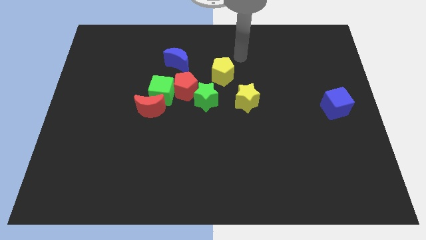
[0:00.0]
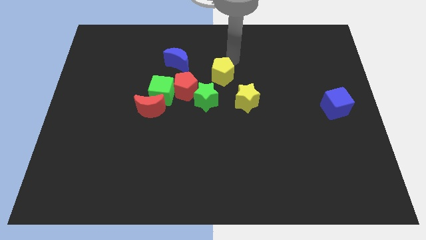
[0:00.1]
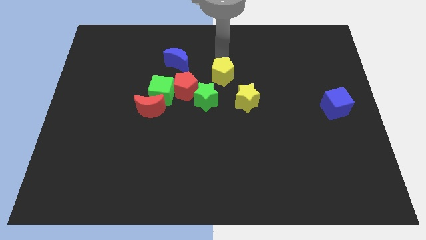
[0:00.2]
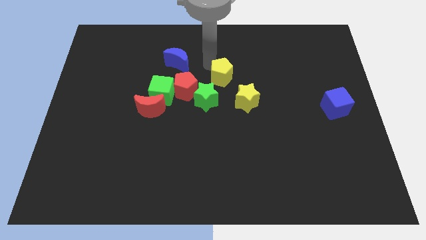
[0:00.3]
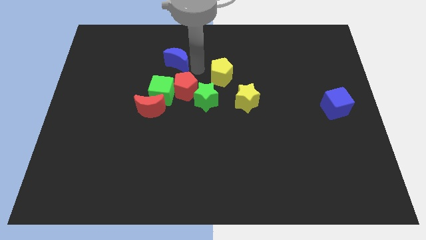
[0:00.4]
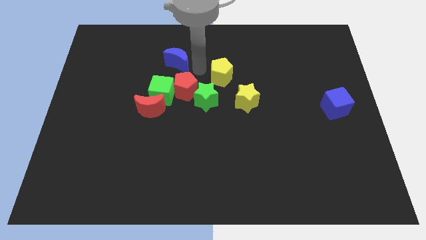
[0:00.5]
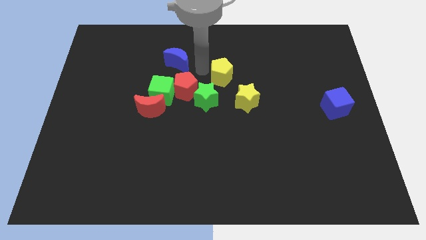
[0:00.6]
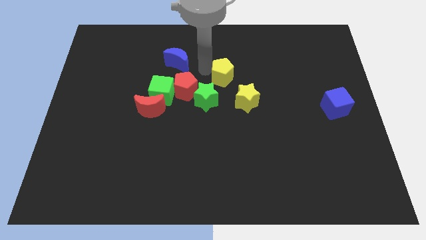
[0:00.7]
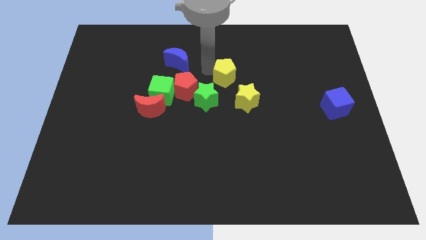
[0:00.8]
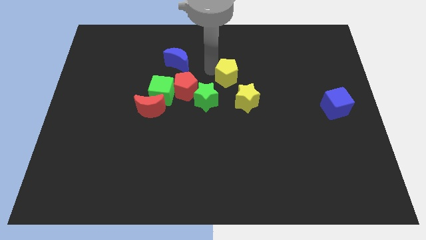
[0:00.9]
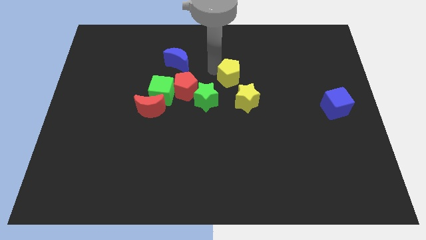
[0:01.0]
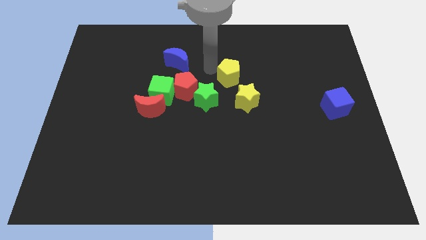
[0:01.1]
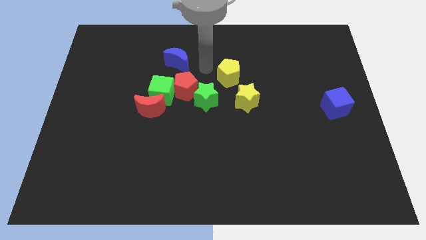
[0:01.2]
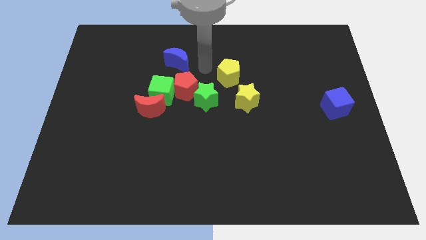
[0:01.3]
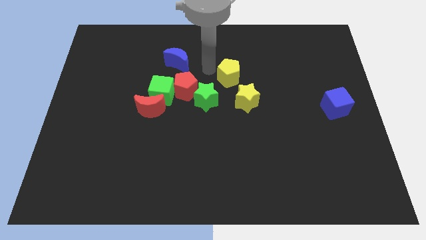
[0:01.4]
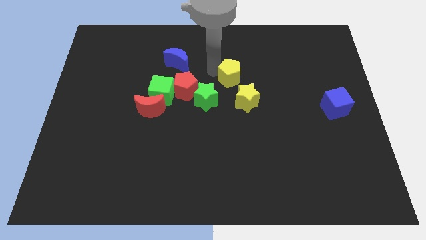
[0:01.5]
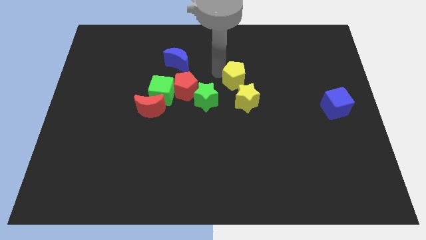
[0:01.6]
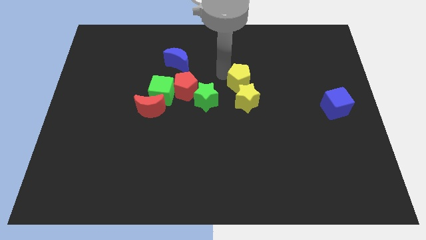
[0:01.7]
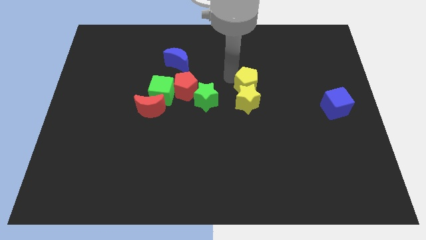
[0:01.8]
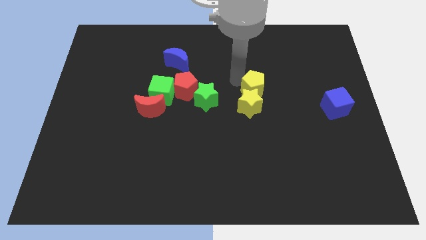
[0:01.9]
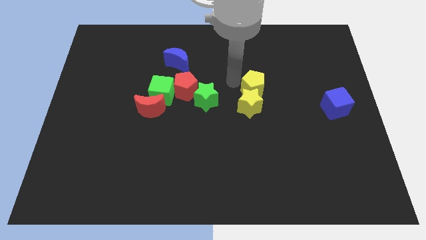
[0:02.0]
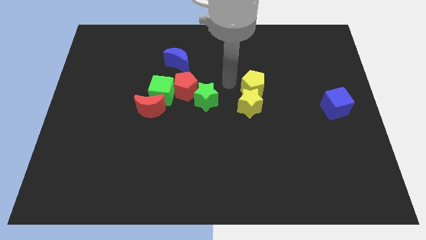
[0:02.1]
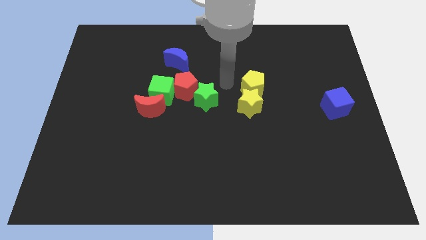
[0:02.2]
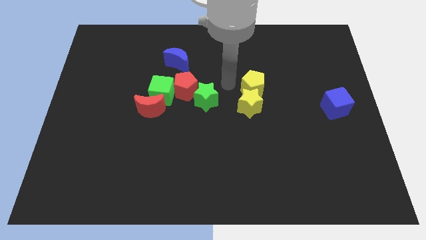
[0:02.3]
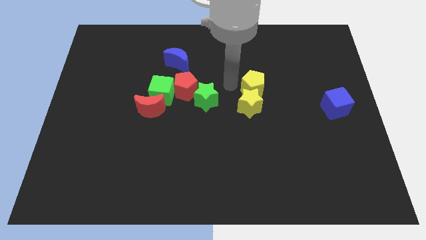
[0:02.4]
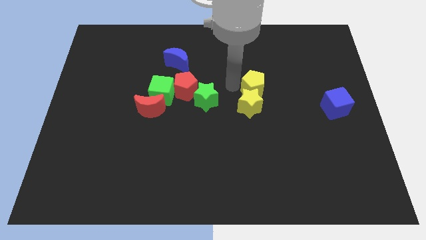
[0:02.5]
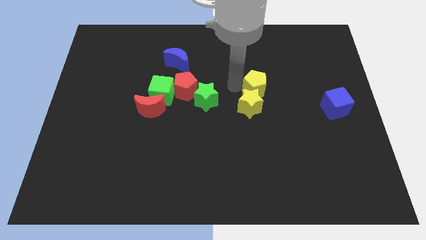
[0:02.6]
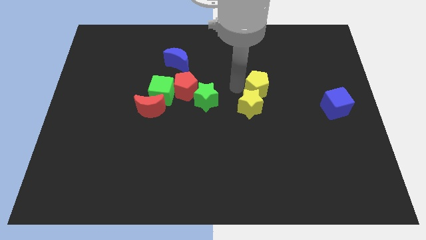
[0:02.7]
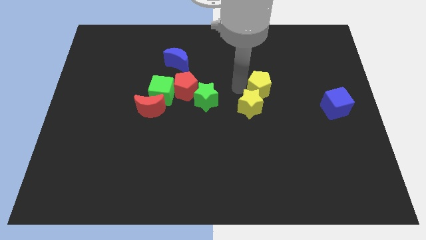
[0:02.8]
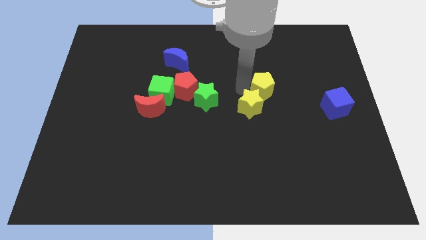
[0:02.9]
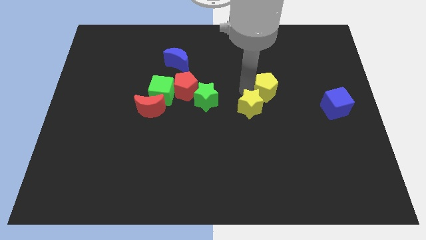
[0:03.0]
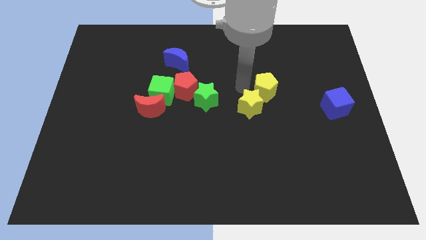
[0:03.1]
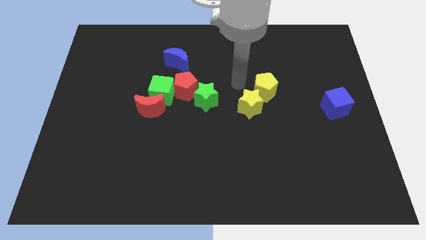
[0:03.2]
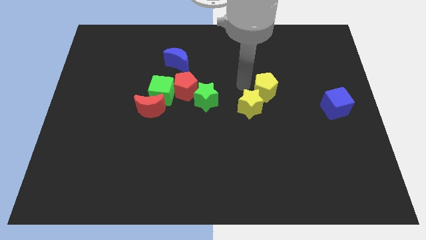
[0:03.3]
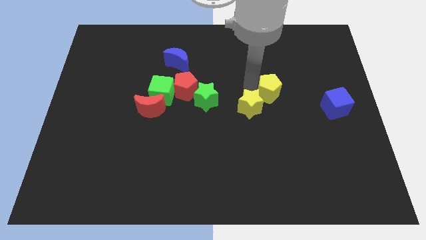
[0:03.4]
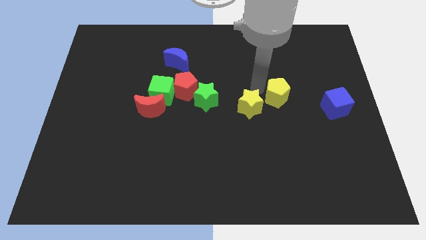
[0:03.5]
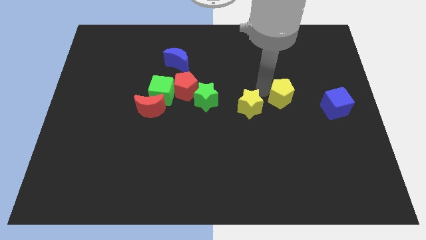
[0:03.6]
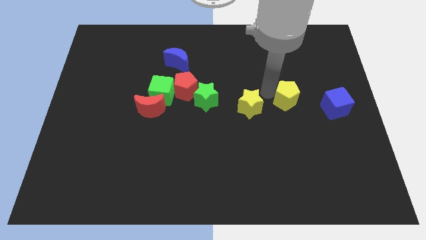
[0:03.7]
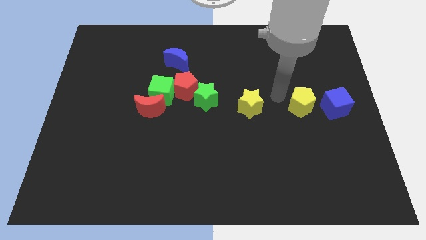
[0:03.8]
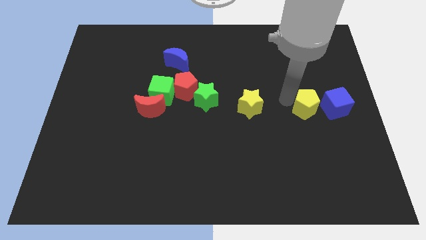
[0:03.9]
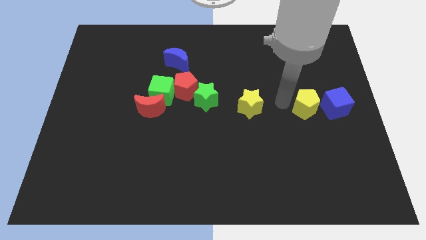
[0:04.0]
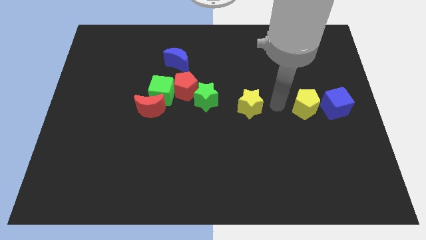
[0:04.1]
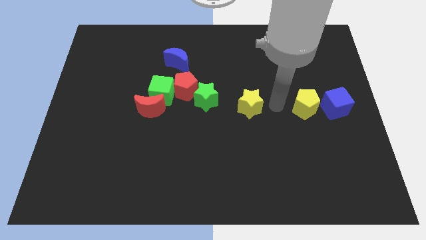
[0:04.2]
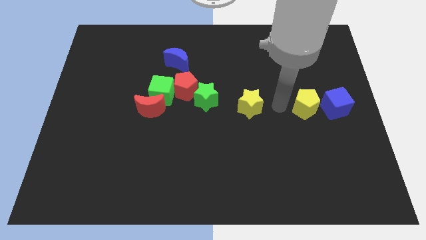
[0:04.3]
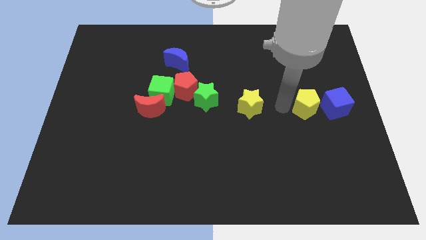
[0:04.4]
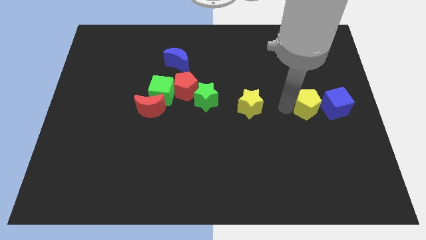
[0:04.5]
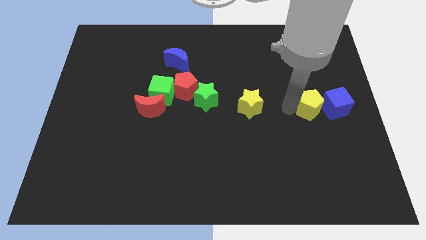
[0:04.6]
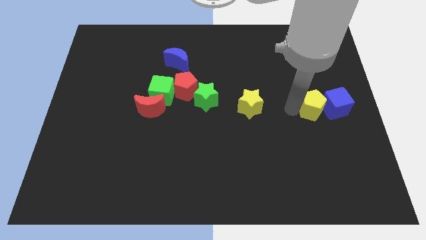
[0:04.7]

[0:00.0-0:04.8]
move the yellow pentagon next to the blue cube

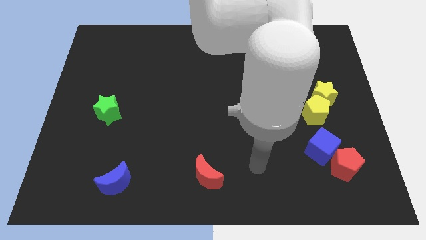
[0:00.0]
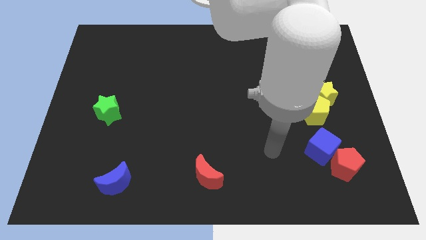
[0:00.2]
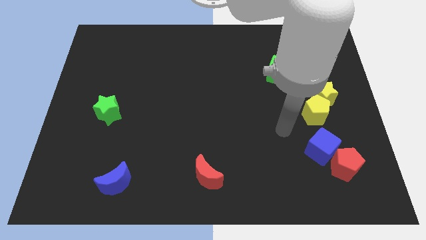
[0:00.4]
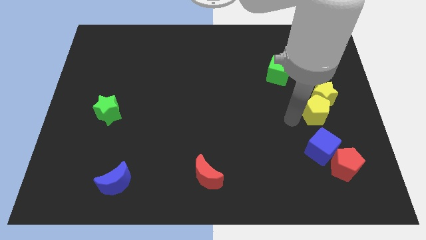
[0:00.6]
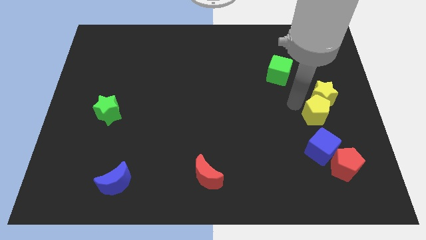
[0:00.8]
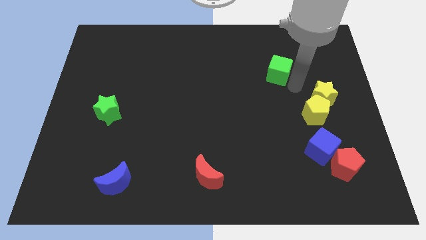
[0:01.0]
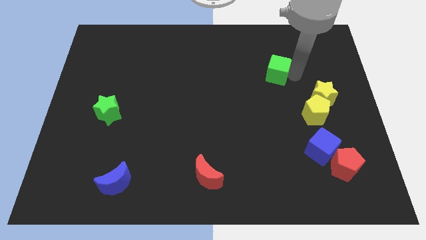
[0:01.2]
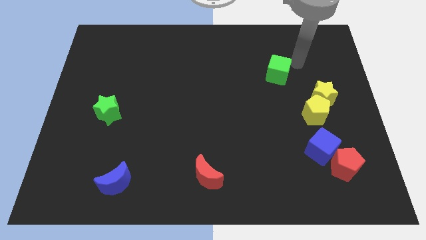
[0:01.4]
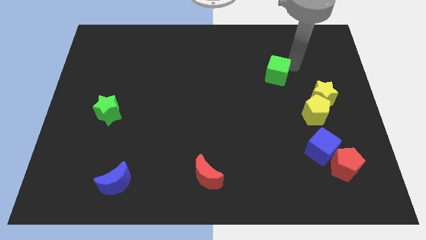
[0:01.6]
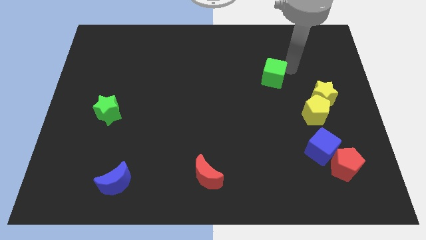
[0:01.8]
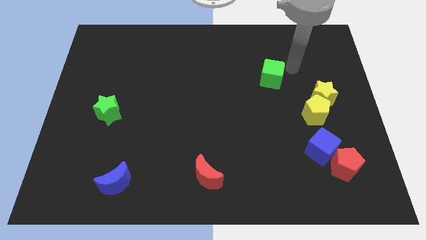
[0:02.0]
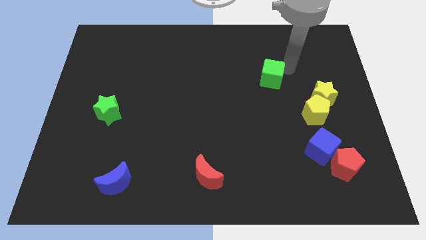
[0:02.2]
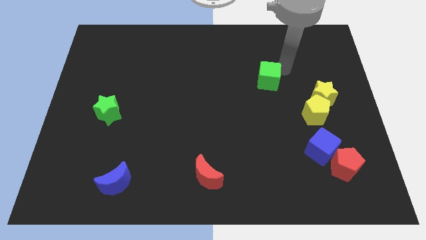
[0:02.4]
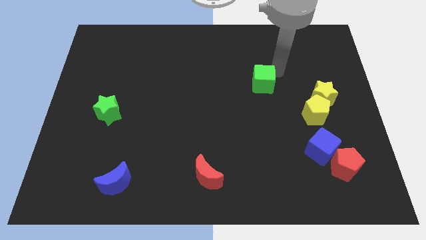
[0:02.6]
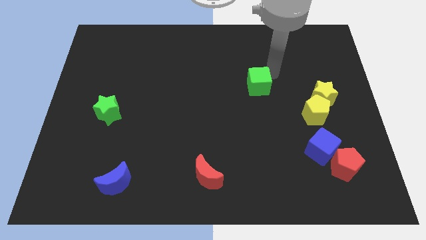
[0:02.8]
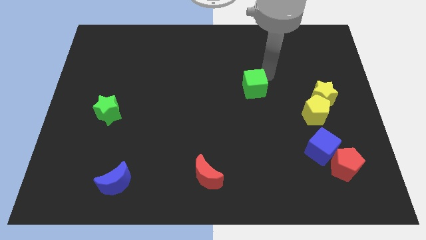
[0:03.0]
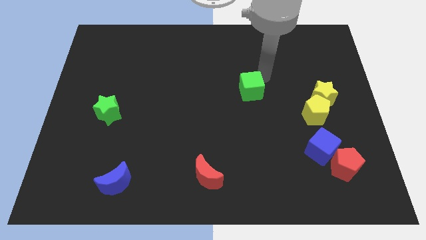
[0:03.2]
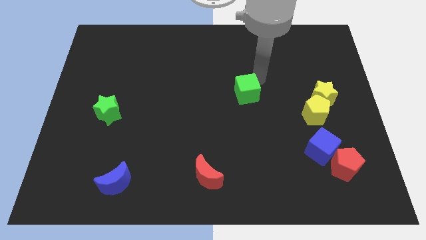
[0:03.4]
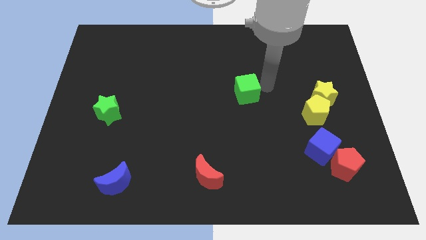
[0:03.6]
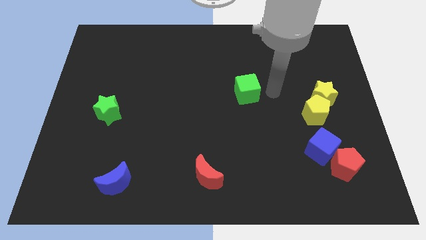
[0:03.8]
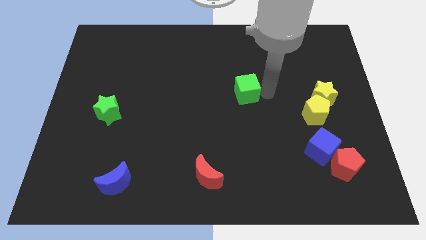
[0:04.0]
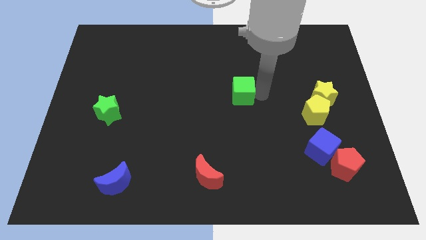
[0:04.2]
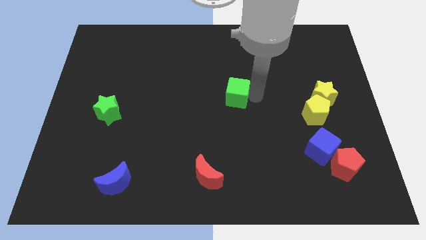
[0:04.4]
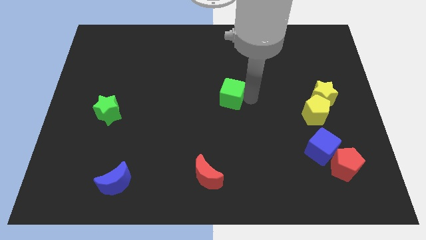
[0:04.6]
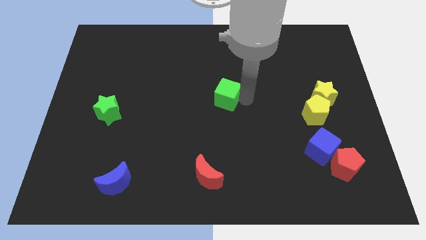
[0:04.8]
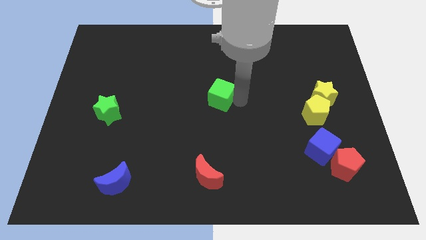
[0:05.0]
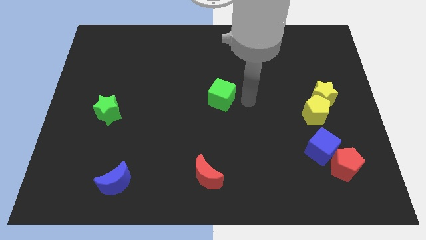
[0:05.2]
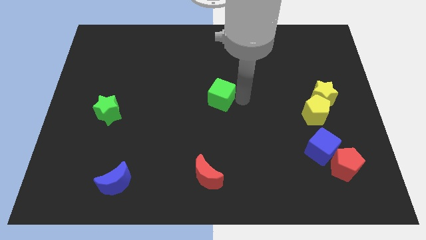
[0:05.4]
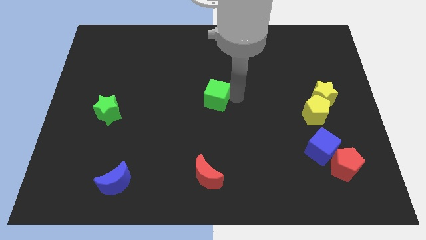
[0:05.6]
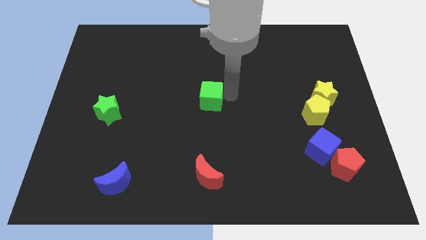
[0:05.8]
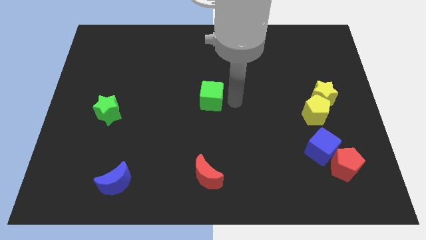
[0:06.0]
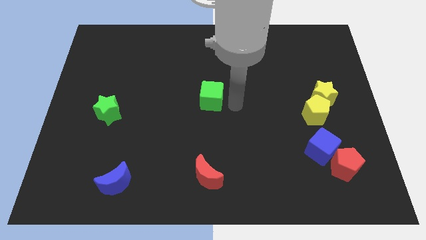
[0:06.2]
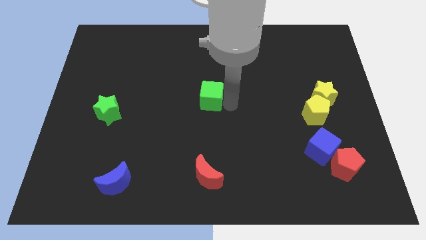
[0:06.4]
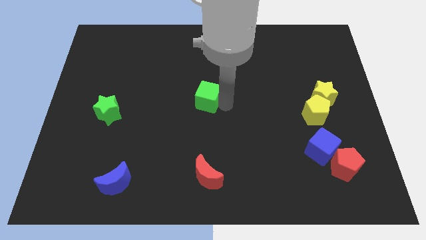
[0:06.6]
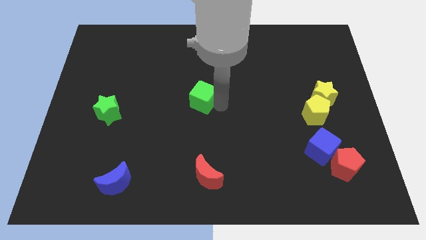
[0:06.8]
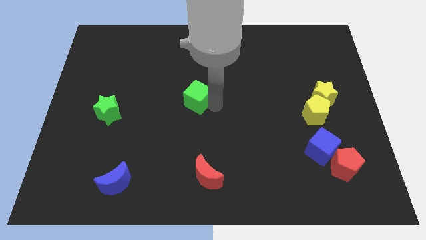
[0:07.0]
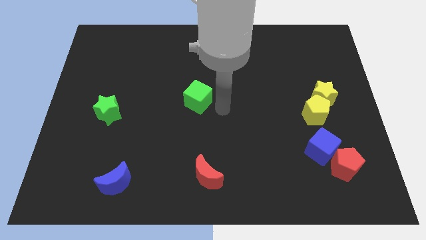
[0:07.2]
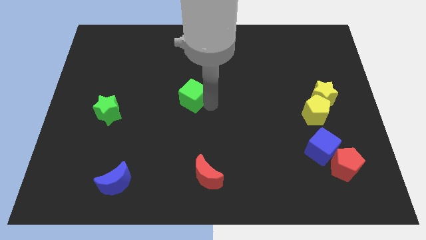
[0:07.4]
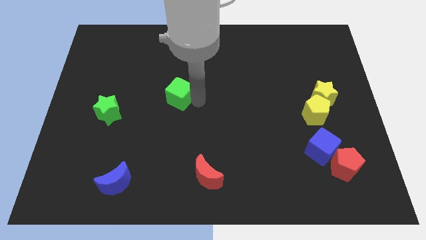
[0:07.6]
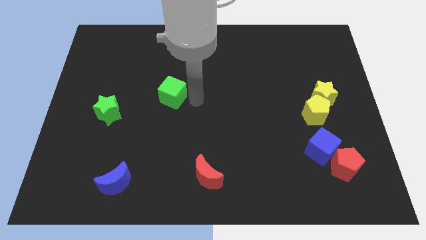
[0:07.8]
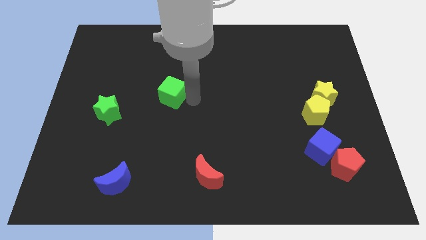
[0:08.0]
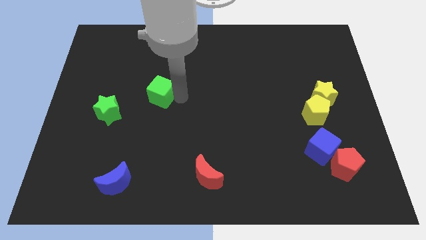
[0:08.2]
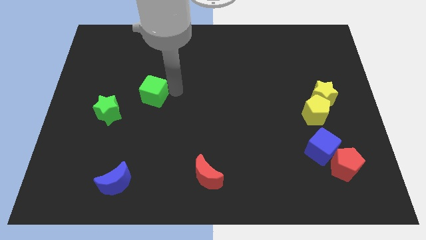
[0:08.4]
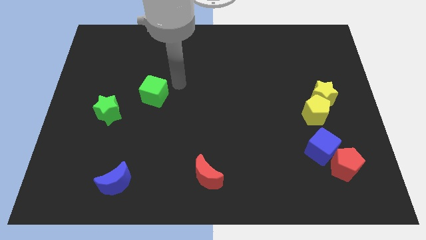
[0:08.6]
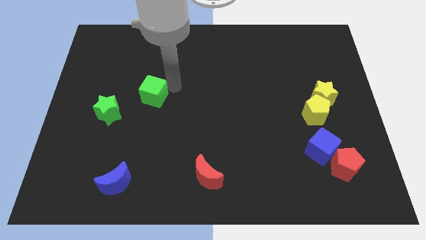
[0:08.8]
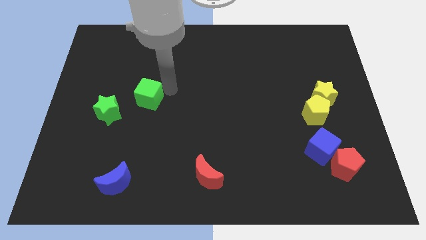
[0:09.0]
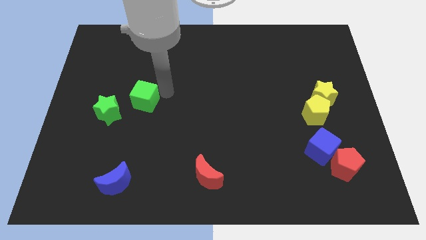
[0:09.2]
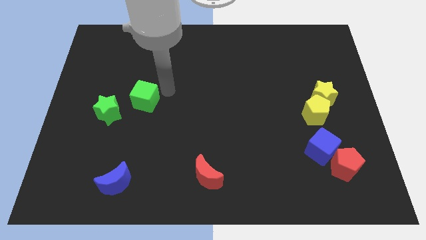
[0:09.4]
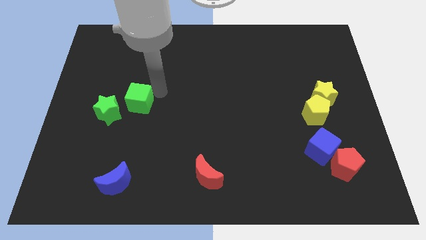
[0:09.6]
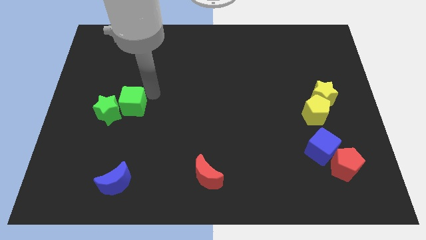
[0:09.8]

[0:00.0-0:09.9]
slide the green cube next to the green star
